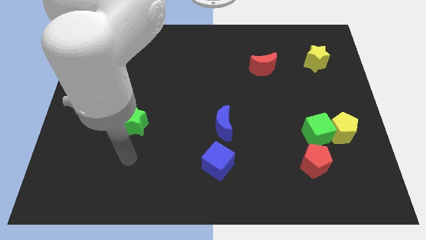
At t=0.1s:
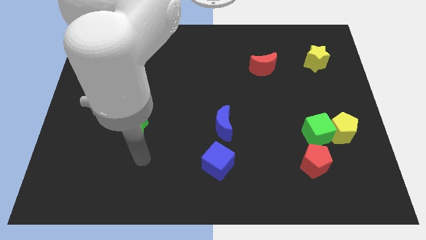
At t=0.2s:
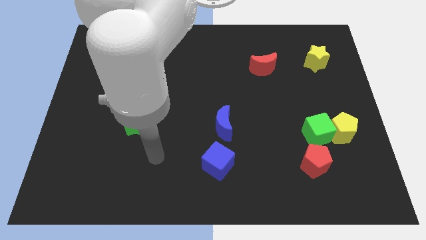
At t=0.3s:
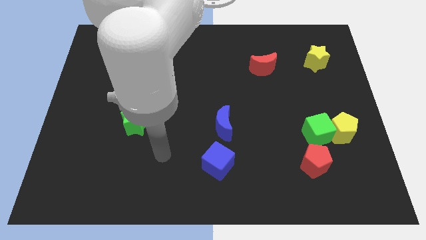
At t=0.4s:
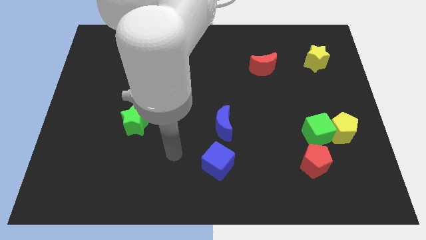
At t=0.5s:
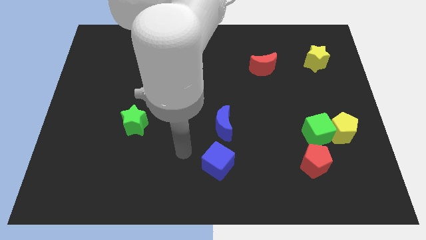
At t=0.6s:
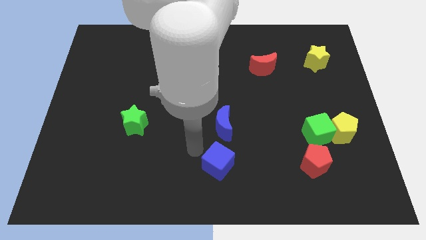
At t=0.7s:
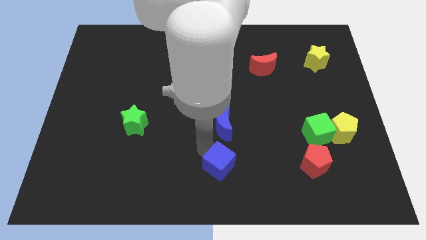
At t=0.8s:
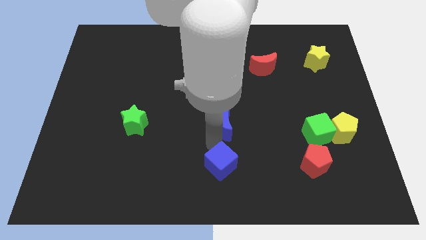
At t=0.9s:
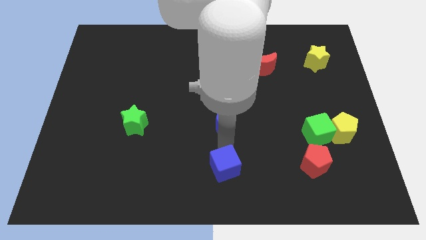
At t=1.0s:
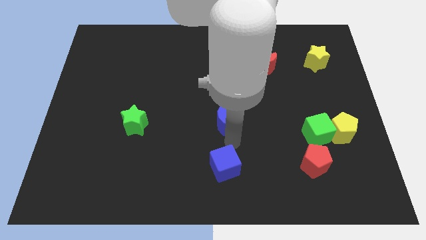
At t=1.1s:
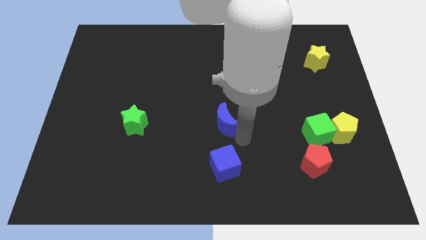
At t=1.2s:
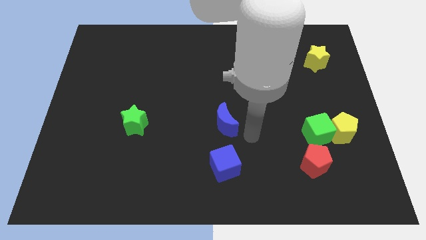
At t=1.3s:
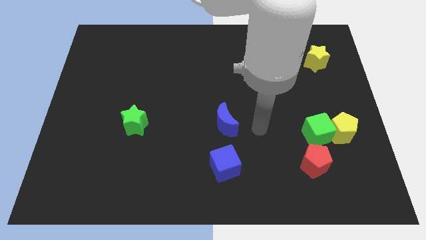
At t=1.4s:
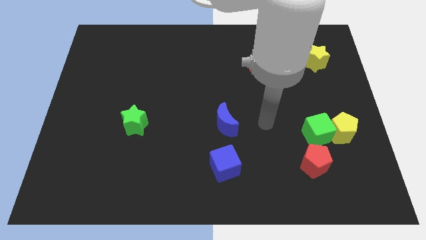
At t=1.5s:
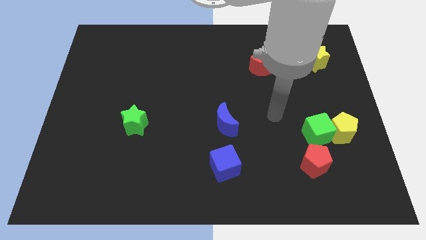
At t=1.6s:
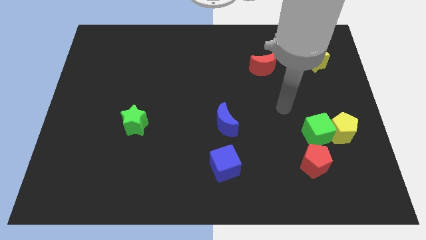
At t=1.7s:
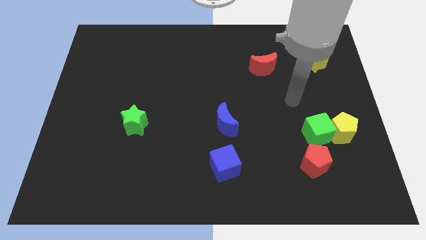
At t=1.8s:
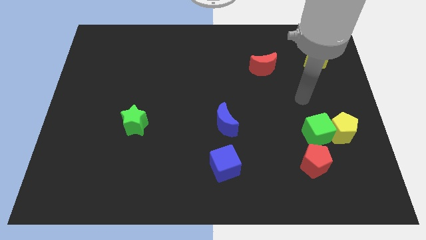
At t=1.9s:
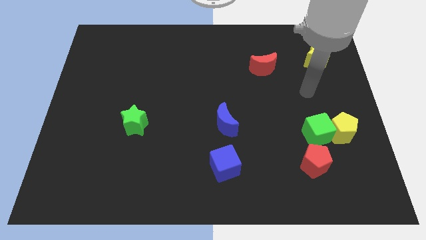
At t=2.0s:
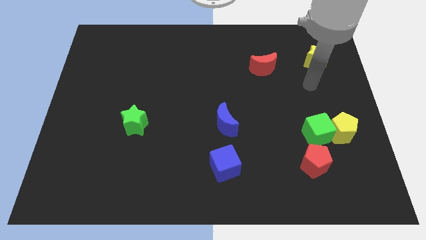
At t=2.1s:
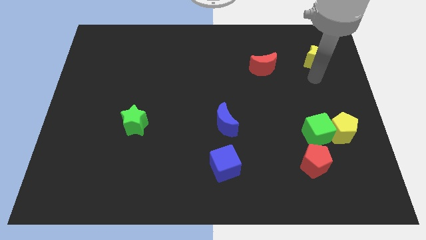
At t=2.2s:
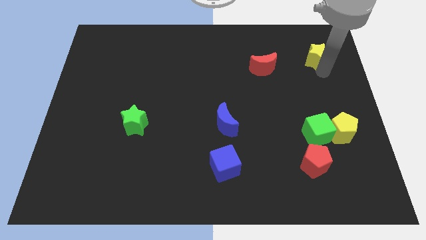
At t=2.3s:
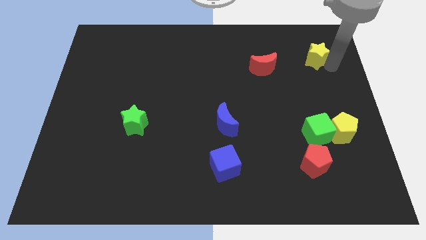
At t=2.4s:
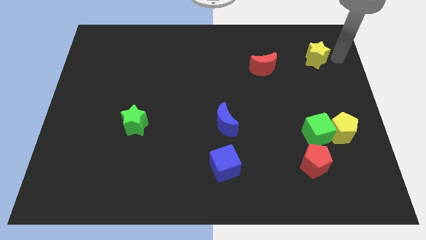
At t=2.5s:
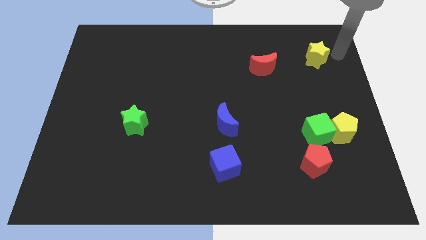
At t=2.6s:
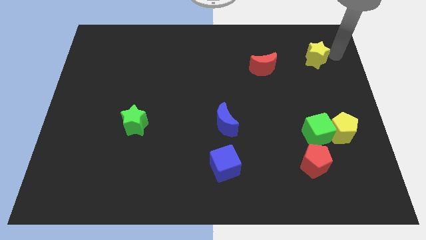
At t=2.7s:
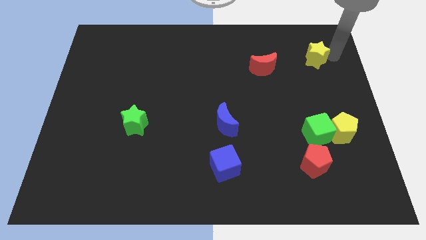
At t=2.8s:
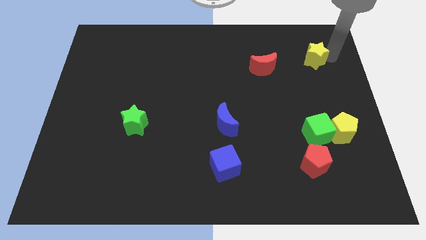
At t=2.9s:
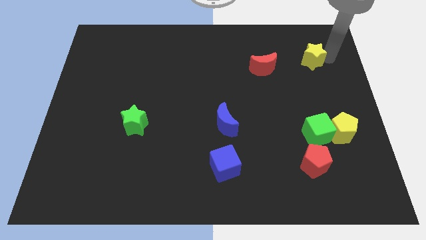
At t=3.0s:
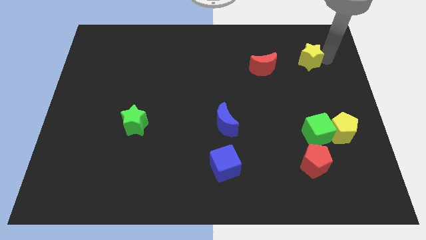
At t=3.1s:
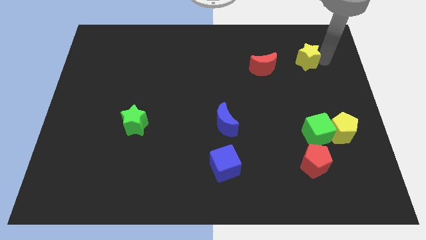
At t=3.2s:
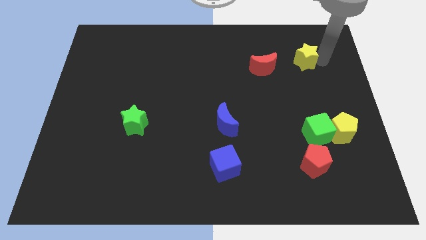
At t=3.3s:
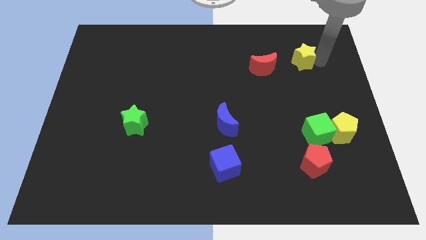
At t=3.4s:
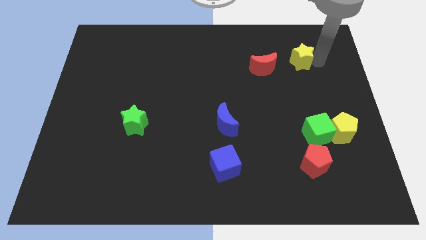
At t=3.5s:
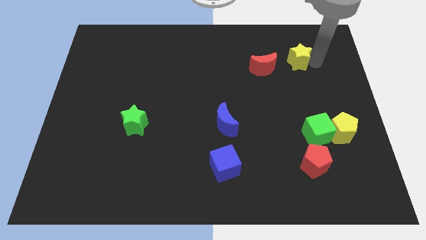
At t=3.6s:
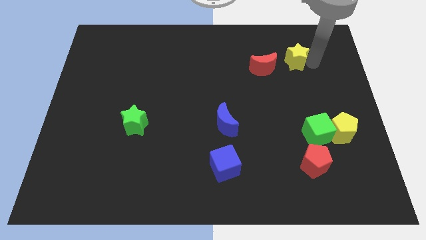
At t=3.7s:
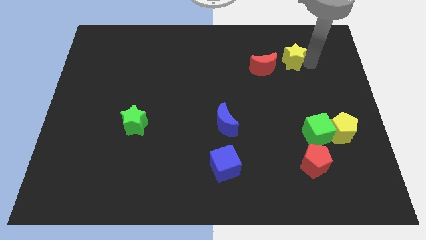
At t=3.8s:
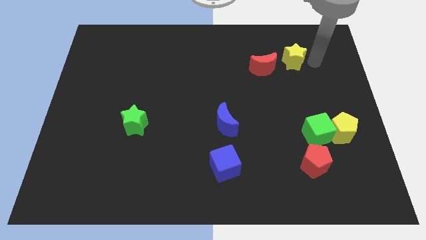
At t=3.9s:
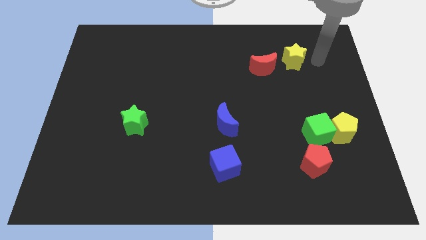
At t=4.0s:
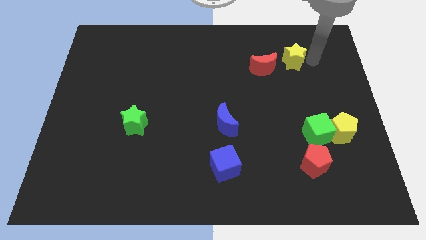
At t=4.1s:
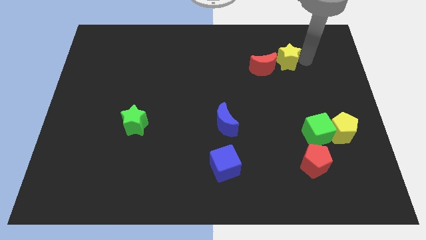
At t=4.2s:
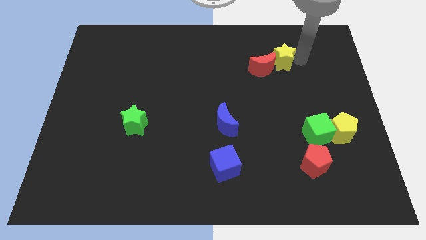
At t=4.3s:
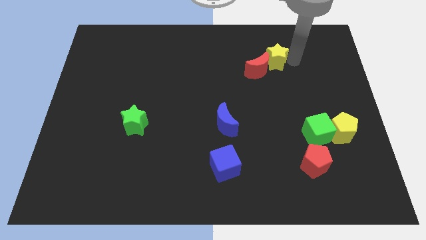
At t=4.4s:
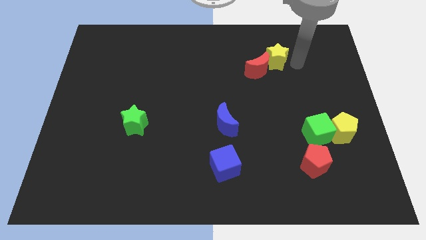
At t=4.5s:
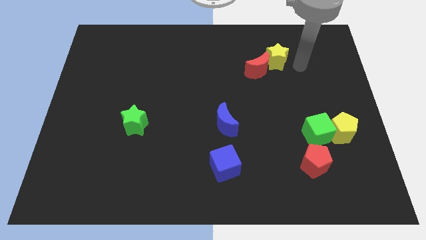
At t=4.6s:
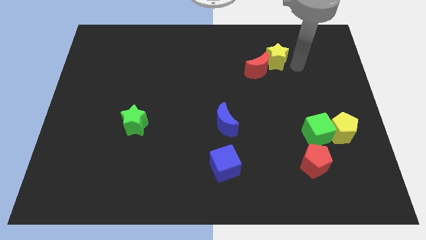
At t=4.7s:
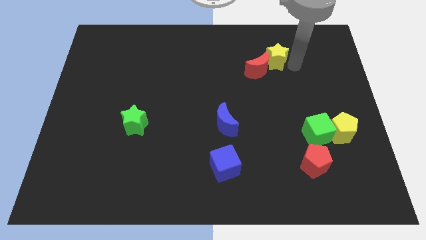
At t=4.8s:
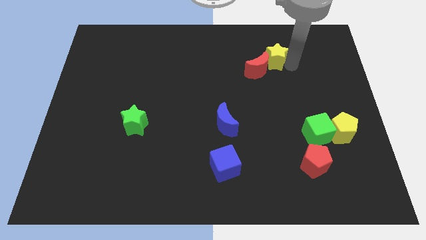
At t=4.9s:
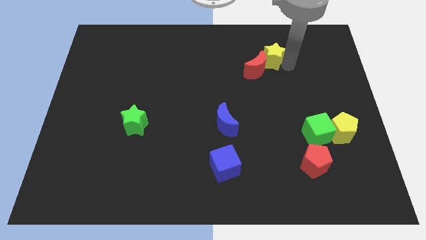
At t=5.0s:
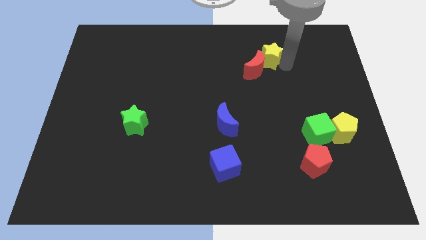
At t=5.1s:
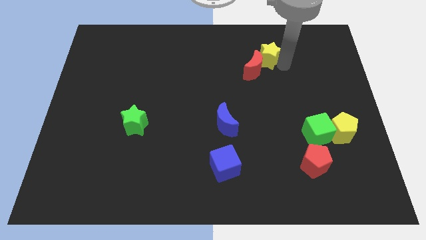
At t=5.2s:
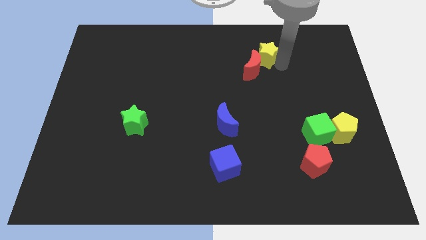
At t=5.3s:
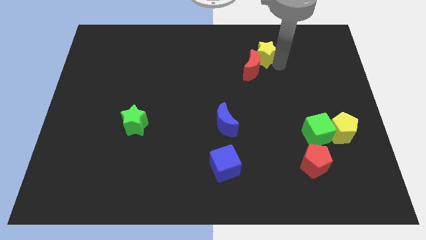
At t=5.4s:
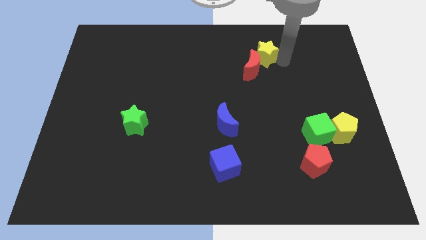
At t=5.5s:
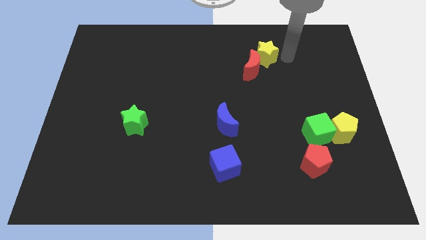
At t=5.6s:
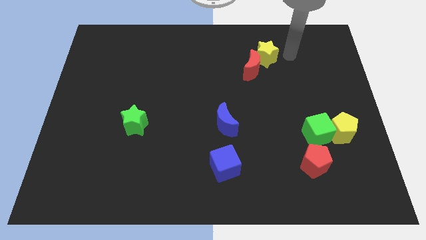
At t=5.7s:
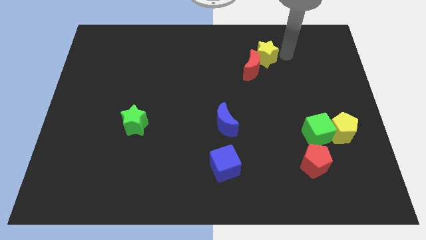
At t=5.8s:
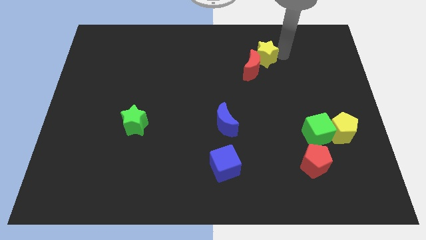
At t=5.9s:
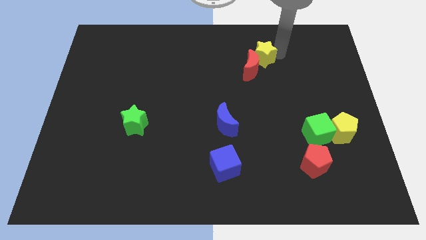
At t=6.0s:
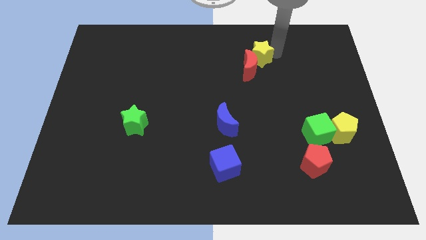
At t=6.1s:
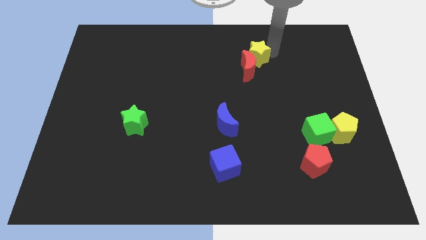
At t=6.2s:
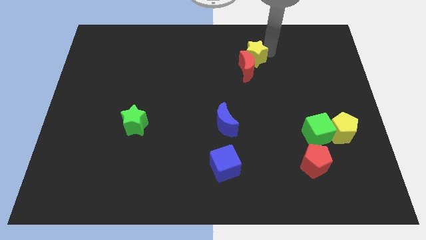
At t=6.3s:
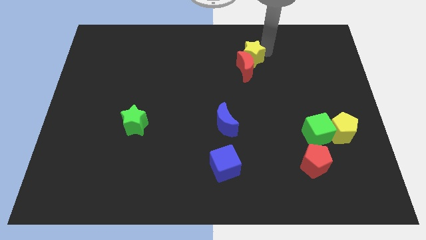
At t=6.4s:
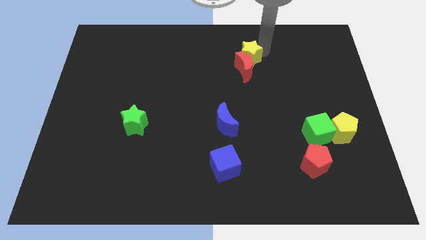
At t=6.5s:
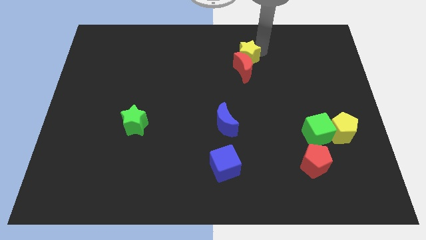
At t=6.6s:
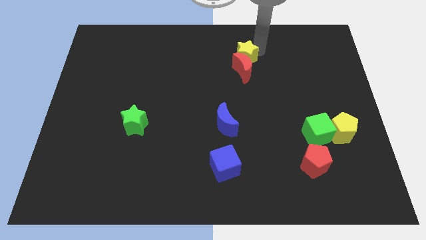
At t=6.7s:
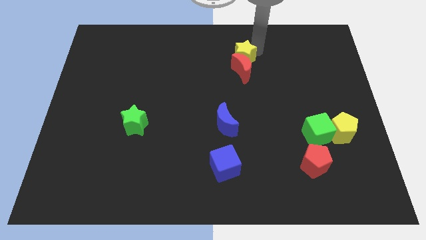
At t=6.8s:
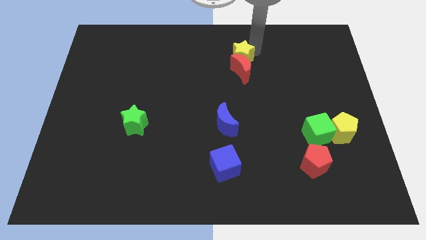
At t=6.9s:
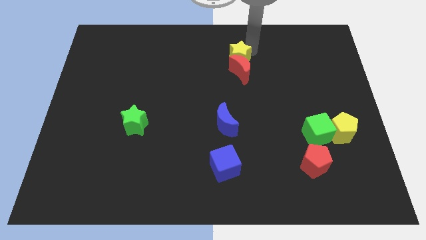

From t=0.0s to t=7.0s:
push the yellow star left

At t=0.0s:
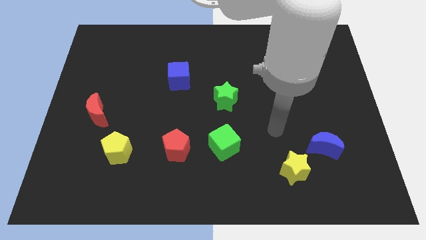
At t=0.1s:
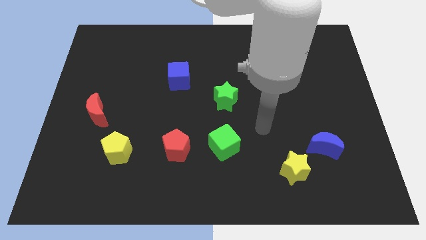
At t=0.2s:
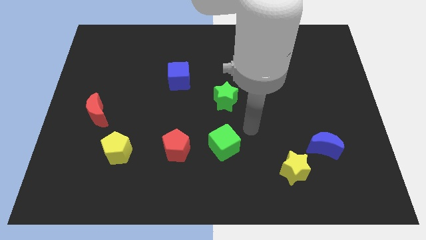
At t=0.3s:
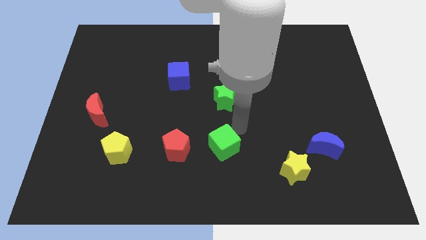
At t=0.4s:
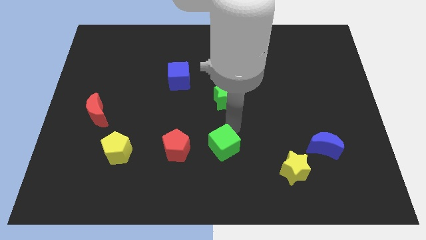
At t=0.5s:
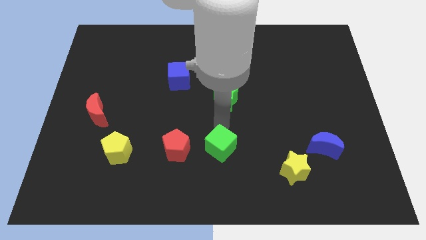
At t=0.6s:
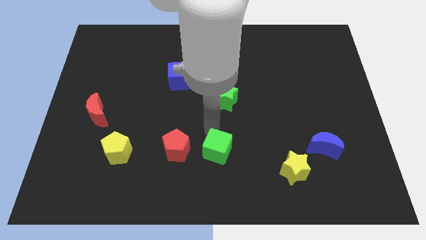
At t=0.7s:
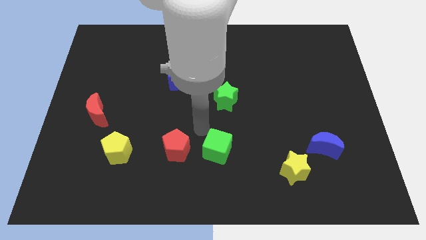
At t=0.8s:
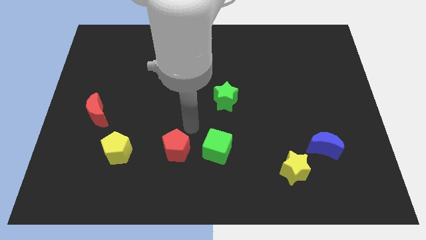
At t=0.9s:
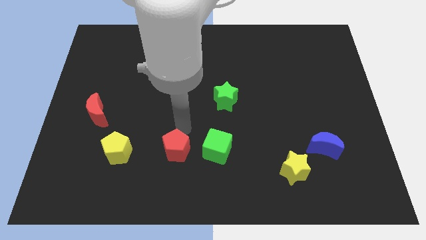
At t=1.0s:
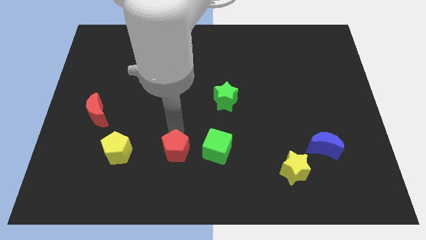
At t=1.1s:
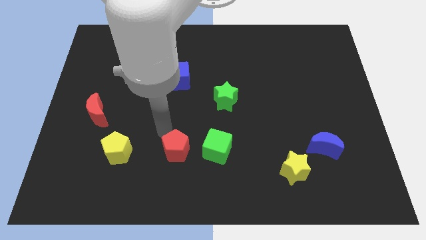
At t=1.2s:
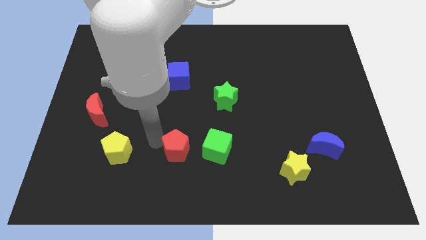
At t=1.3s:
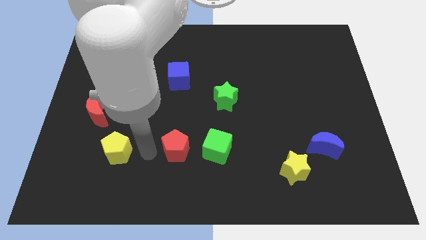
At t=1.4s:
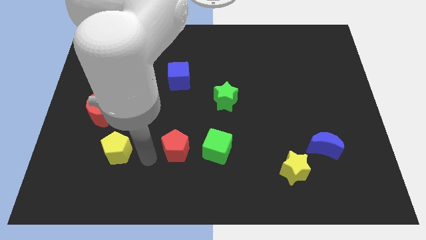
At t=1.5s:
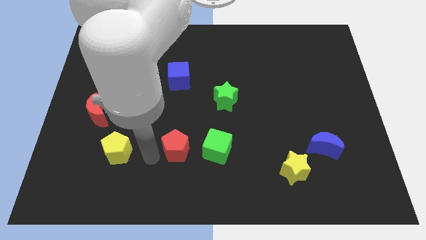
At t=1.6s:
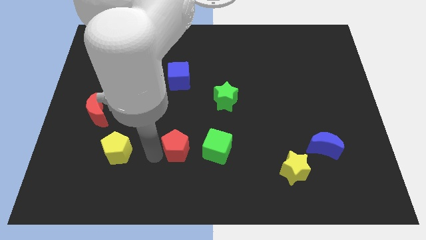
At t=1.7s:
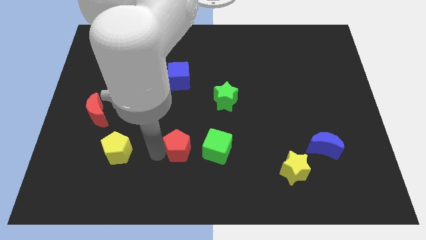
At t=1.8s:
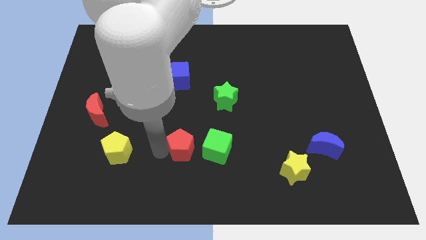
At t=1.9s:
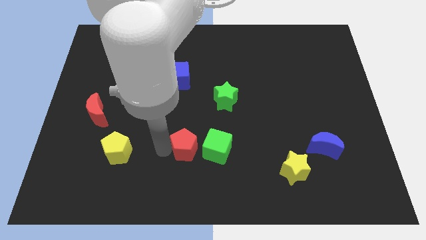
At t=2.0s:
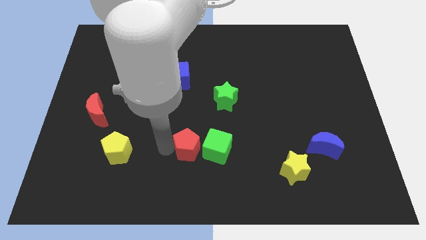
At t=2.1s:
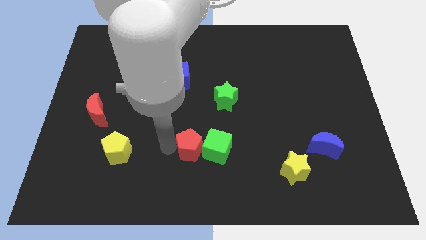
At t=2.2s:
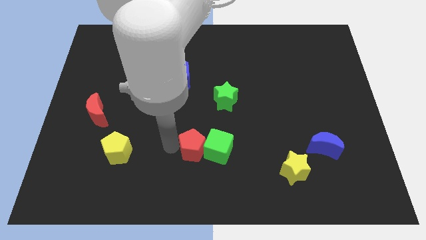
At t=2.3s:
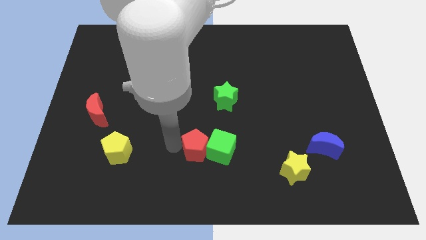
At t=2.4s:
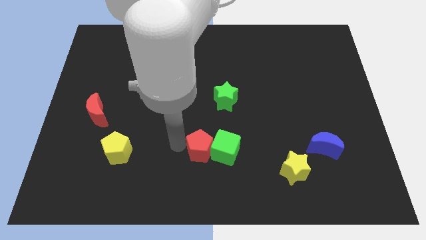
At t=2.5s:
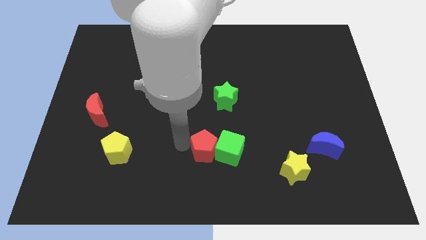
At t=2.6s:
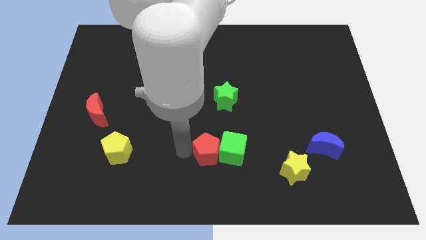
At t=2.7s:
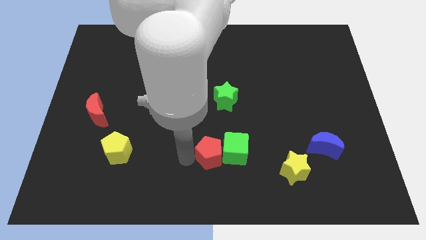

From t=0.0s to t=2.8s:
push the red pentagon right a little
